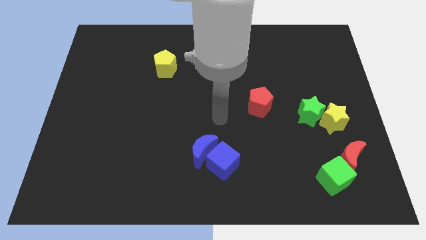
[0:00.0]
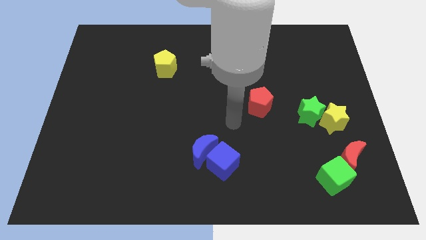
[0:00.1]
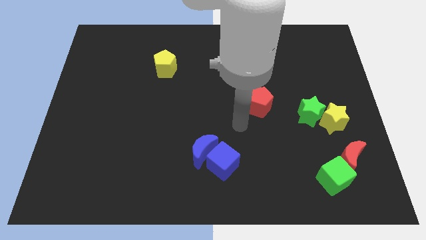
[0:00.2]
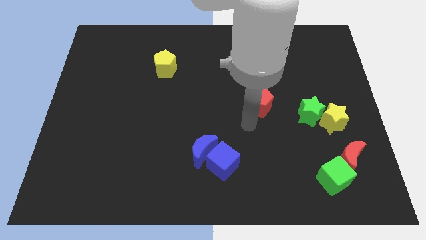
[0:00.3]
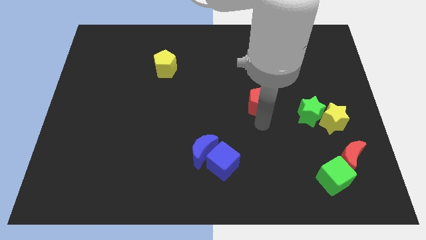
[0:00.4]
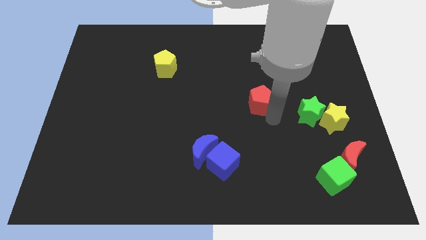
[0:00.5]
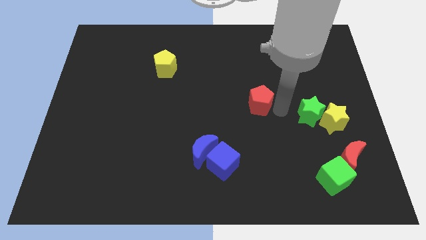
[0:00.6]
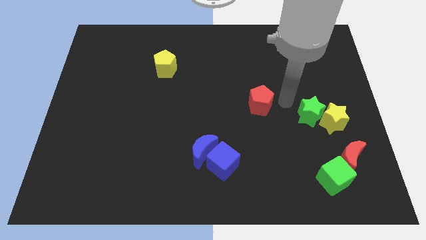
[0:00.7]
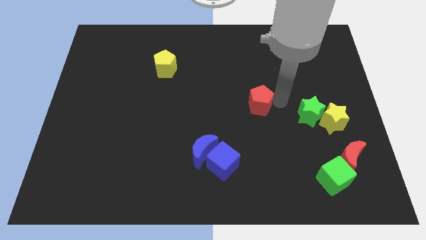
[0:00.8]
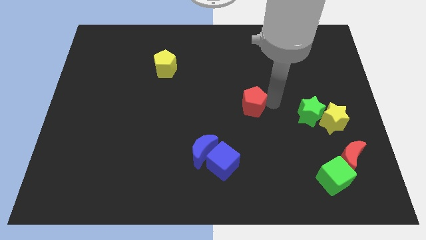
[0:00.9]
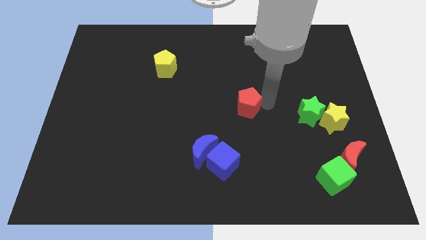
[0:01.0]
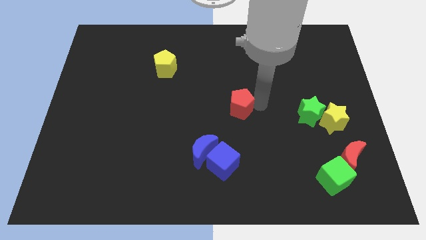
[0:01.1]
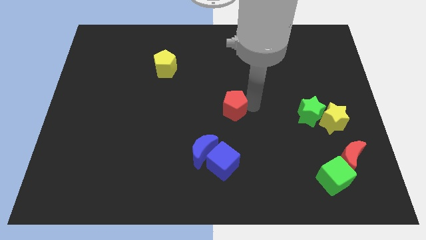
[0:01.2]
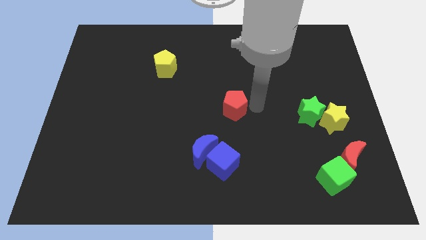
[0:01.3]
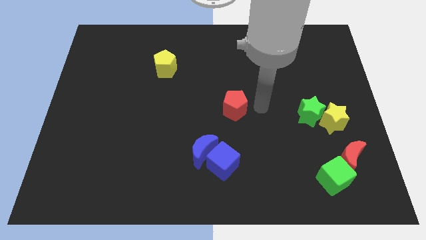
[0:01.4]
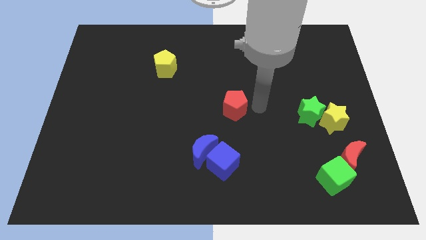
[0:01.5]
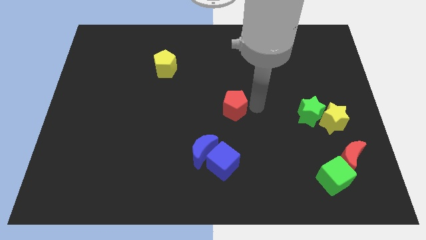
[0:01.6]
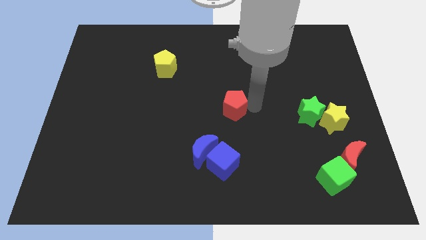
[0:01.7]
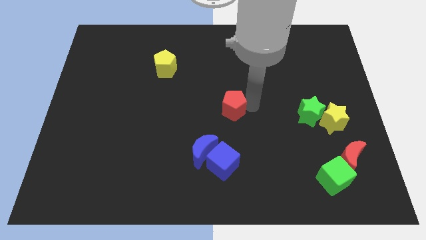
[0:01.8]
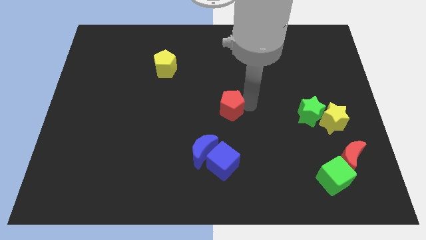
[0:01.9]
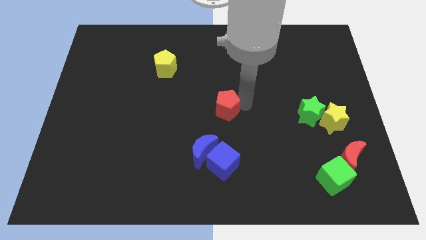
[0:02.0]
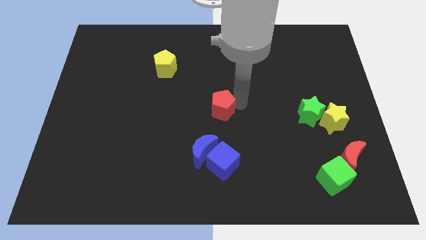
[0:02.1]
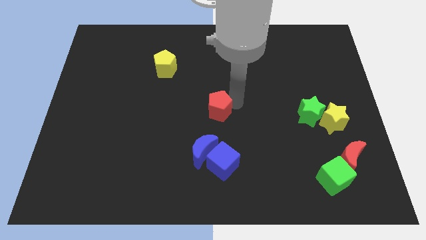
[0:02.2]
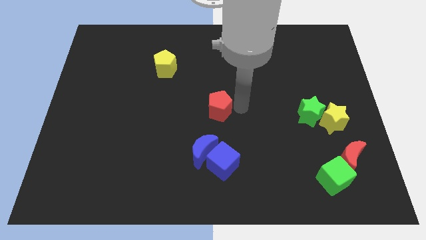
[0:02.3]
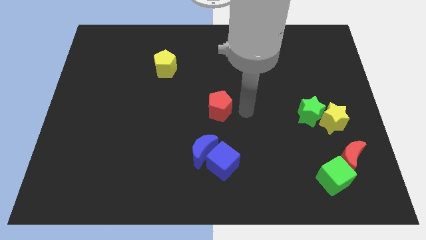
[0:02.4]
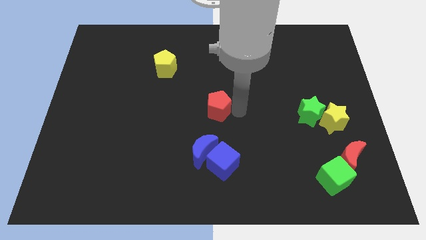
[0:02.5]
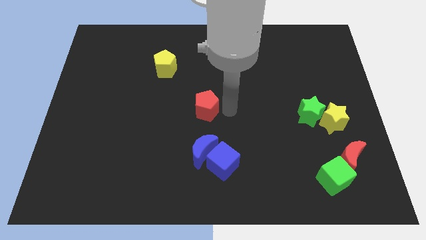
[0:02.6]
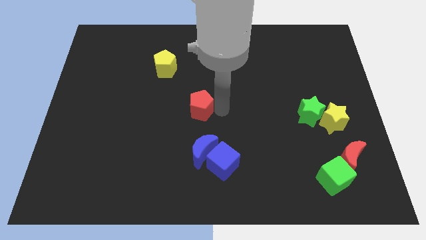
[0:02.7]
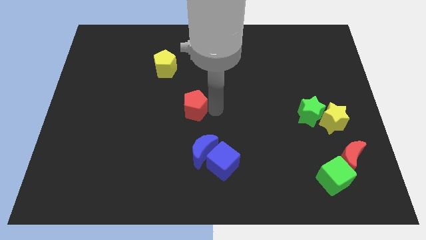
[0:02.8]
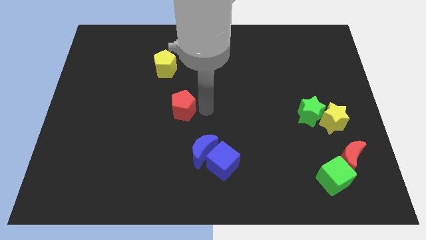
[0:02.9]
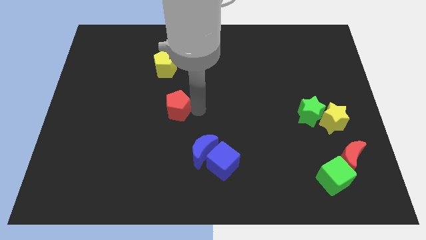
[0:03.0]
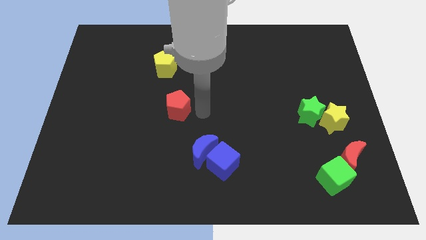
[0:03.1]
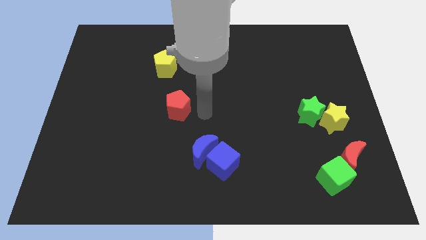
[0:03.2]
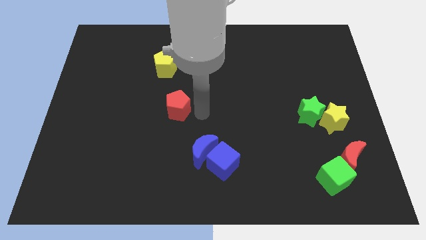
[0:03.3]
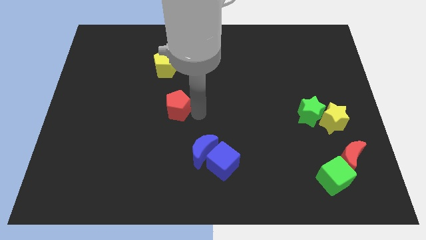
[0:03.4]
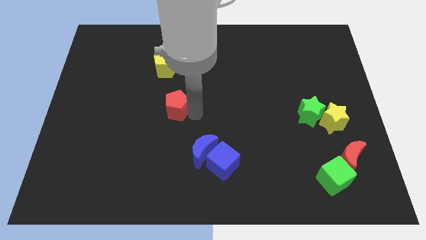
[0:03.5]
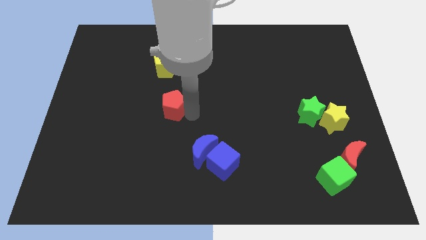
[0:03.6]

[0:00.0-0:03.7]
push the red pentagon to the left

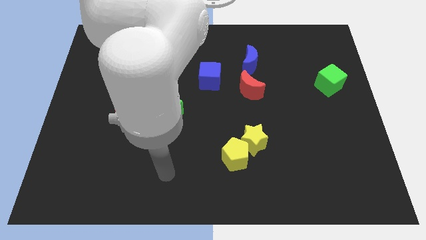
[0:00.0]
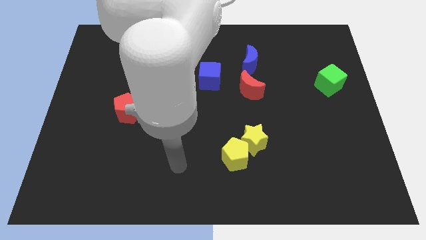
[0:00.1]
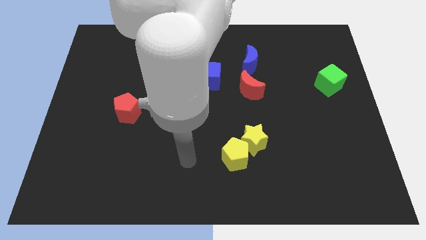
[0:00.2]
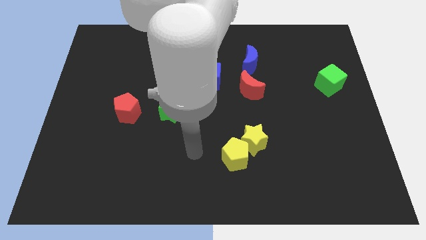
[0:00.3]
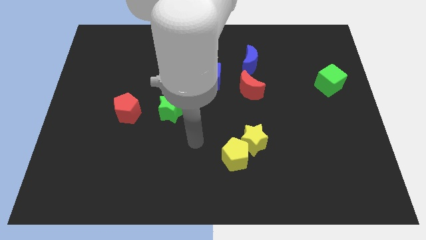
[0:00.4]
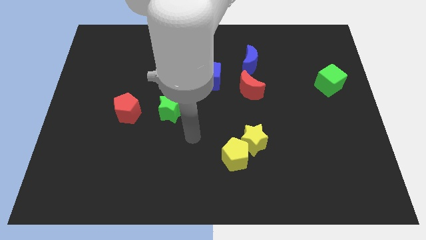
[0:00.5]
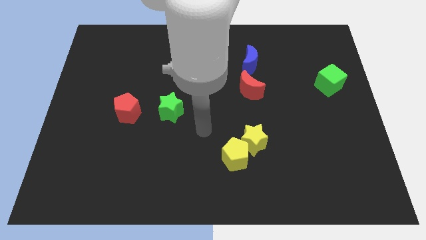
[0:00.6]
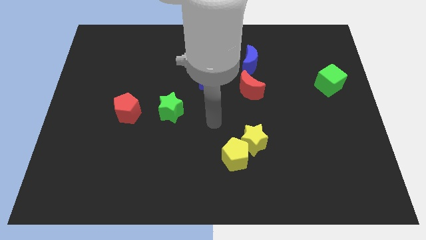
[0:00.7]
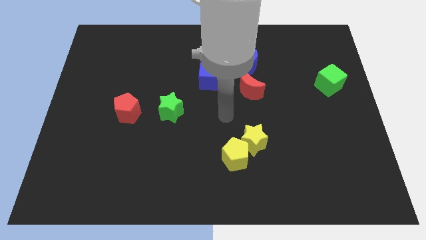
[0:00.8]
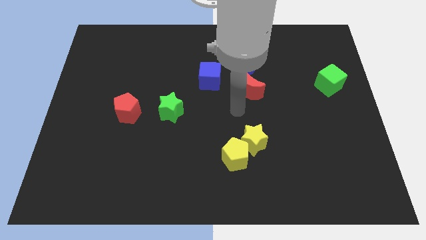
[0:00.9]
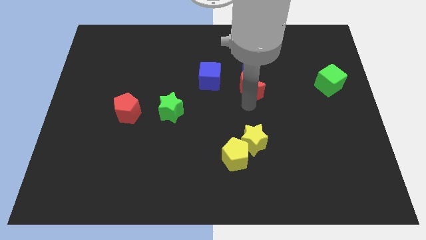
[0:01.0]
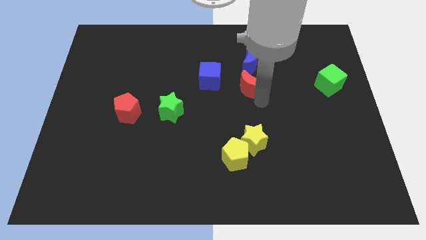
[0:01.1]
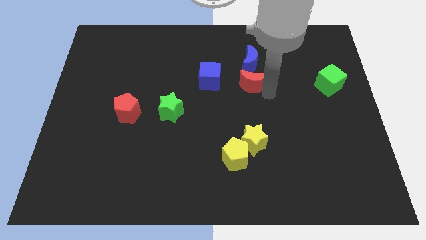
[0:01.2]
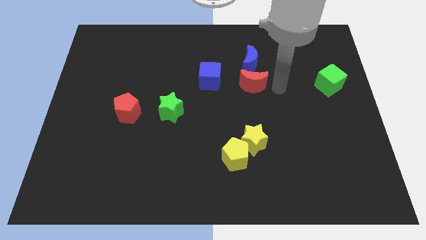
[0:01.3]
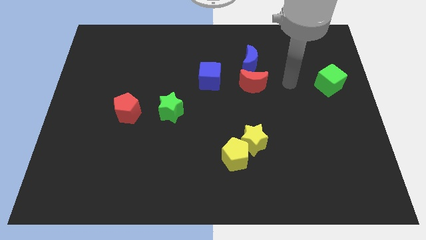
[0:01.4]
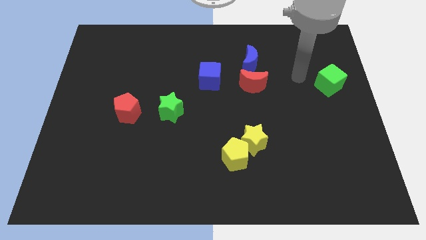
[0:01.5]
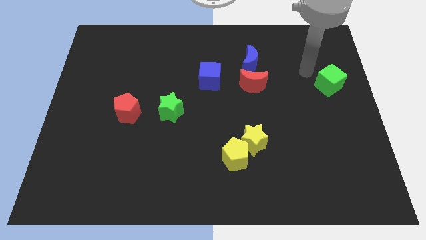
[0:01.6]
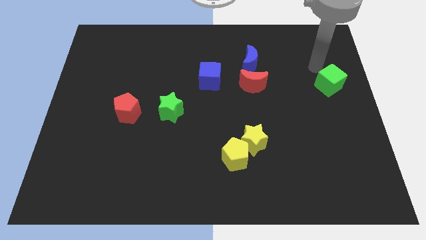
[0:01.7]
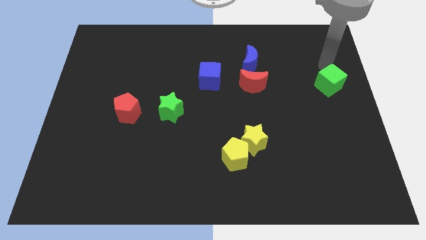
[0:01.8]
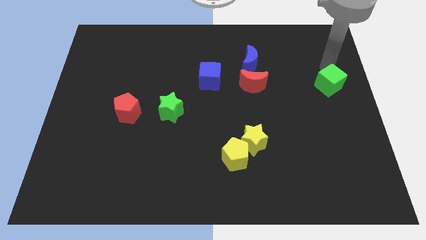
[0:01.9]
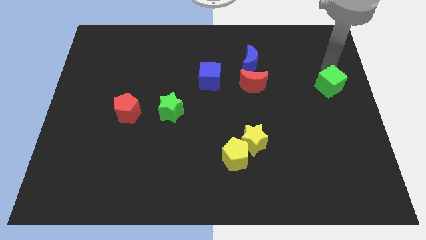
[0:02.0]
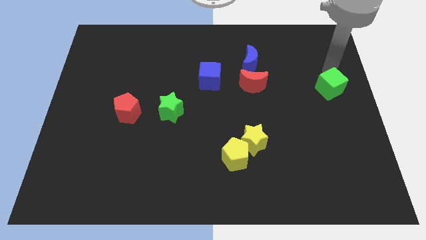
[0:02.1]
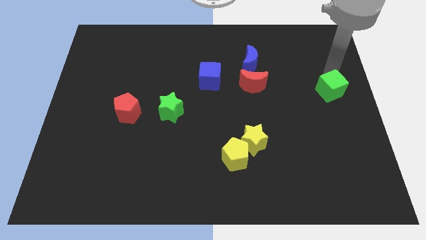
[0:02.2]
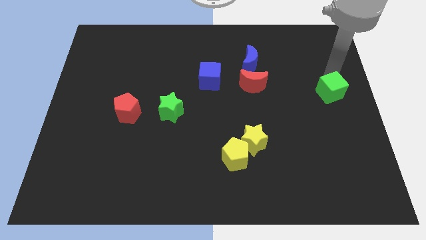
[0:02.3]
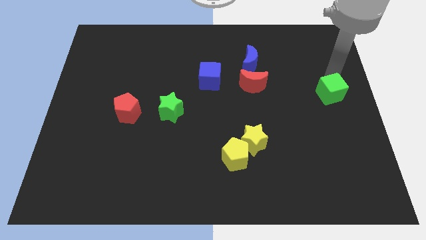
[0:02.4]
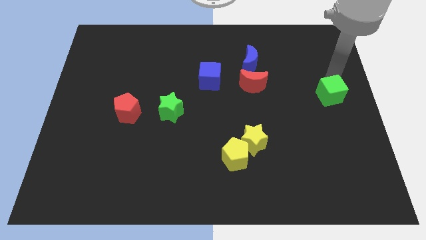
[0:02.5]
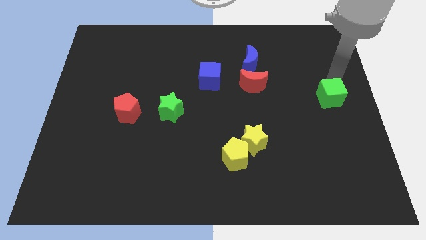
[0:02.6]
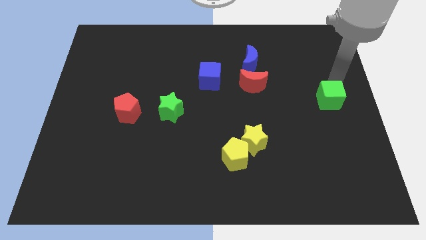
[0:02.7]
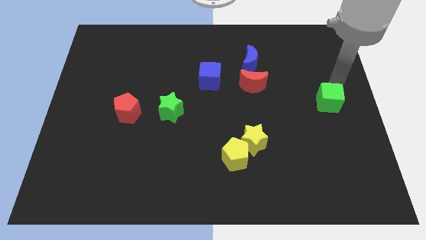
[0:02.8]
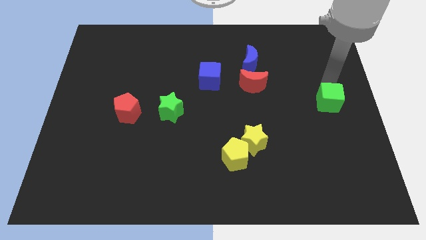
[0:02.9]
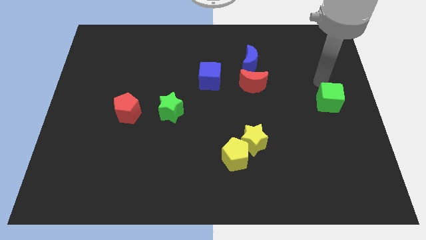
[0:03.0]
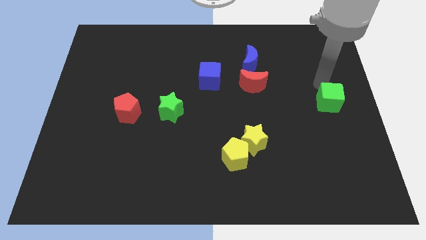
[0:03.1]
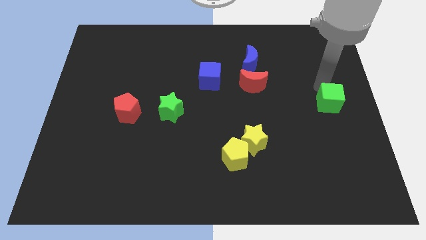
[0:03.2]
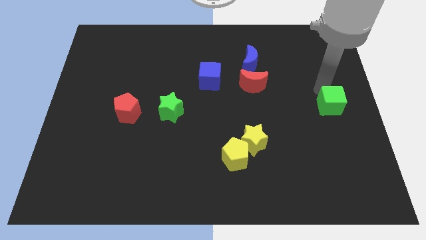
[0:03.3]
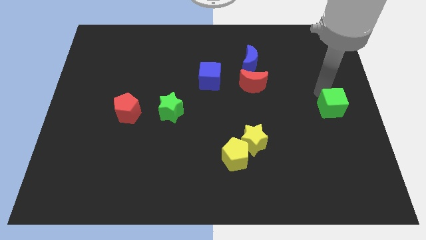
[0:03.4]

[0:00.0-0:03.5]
slightly push the green cube down

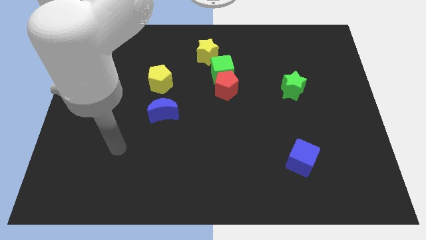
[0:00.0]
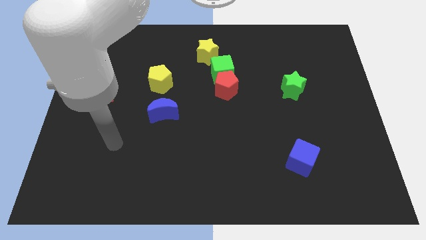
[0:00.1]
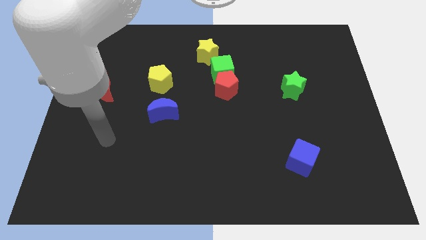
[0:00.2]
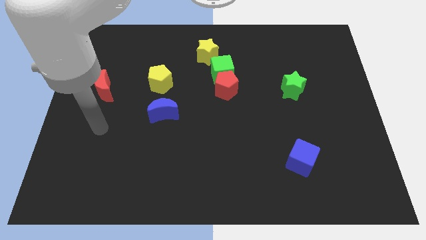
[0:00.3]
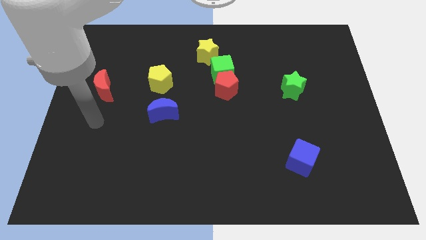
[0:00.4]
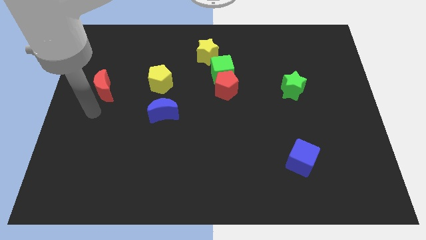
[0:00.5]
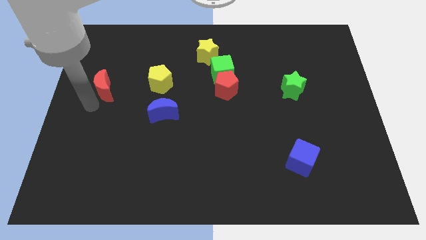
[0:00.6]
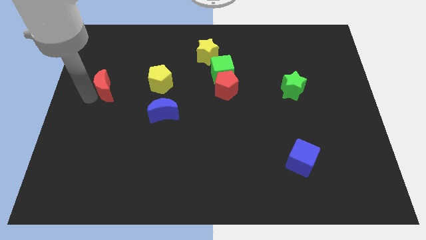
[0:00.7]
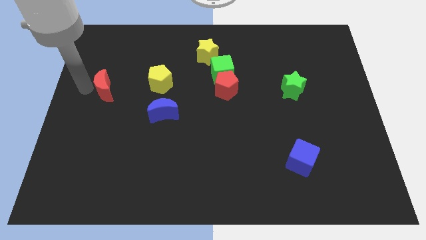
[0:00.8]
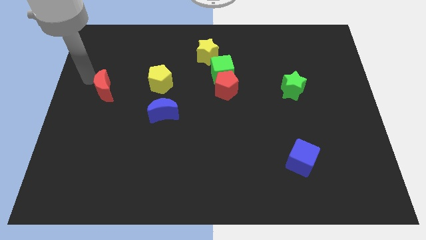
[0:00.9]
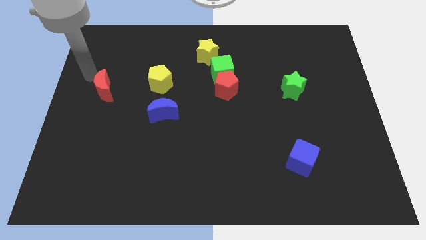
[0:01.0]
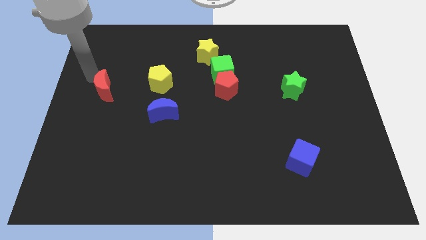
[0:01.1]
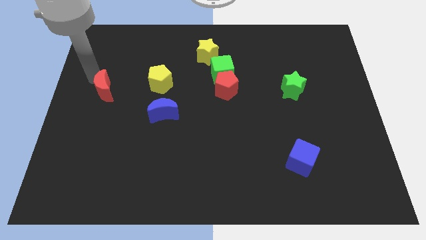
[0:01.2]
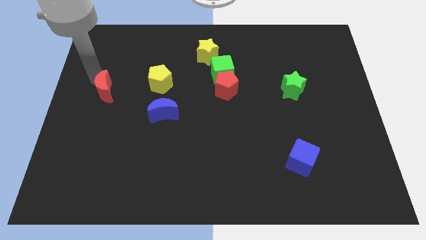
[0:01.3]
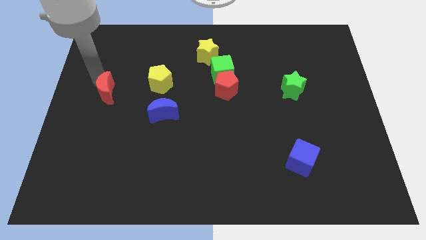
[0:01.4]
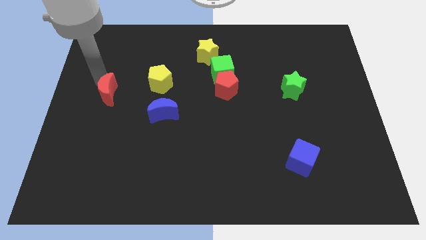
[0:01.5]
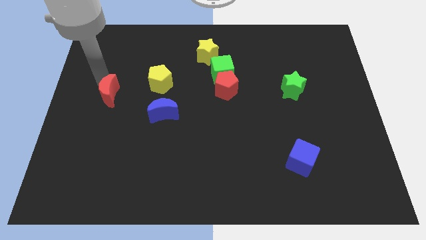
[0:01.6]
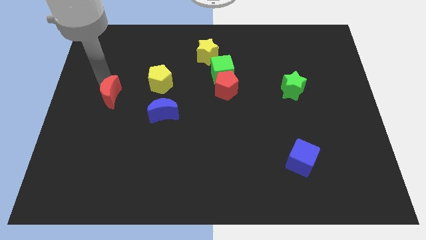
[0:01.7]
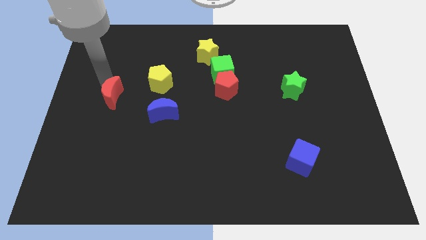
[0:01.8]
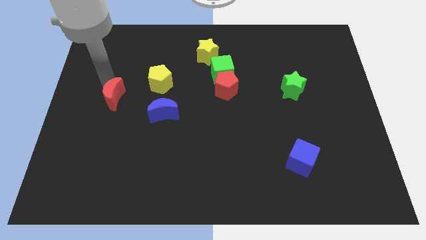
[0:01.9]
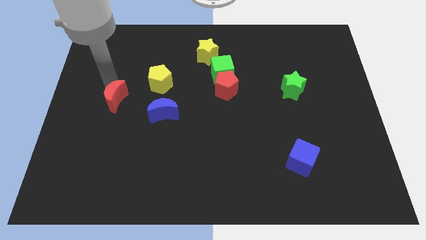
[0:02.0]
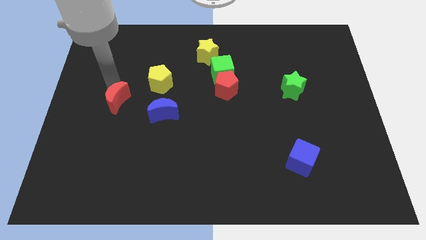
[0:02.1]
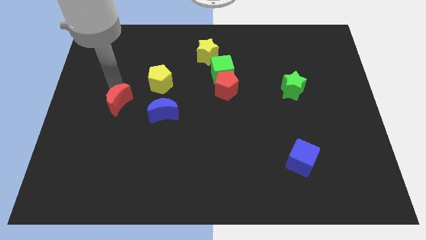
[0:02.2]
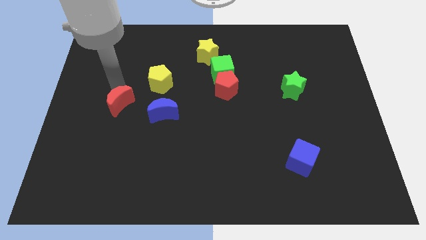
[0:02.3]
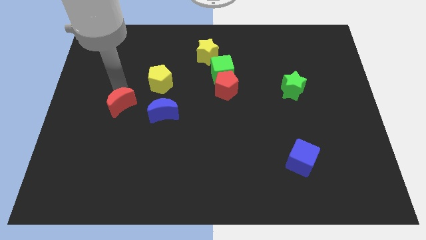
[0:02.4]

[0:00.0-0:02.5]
slightly move the red moon down and then to the right
